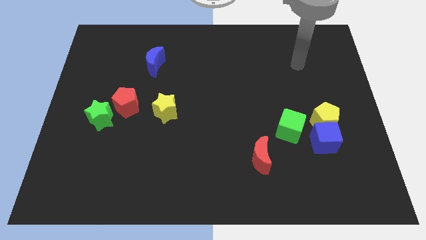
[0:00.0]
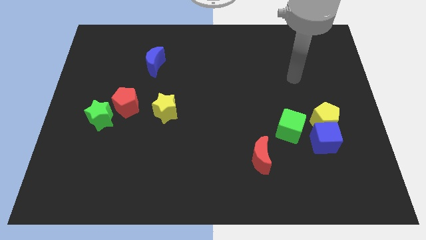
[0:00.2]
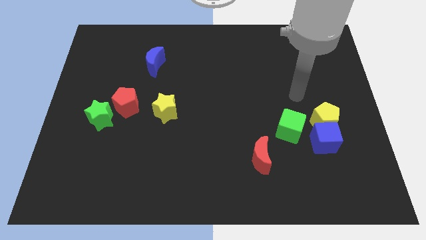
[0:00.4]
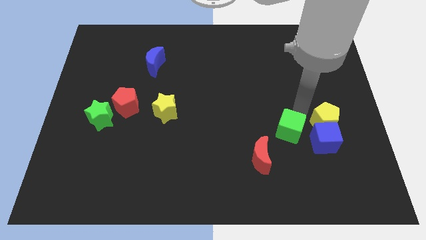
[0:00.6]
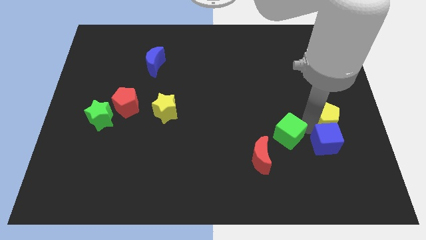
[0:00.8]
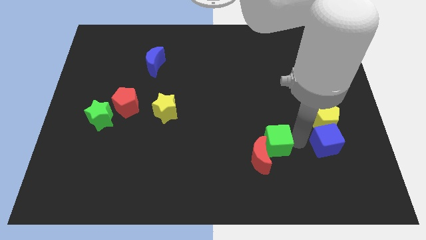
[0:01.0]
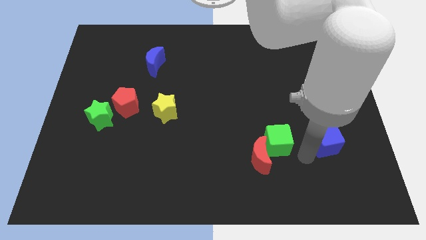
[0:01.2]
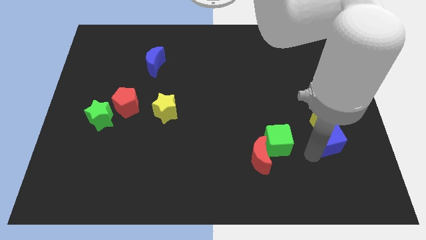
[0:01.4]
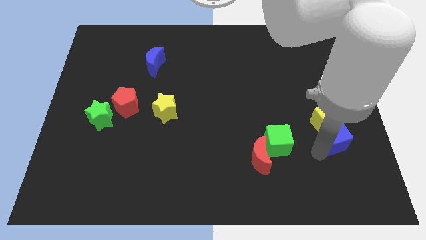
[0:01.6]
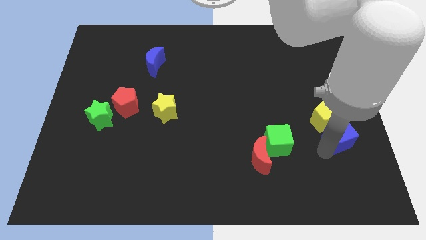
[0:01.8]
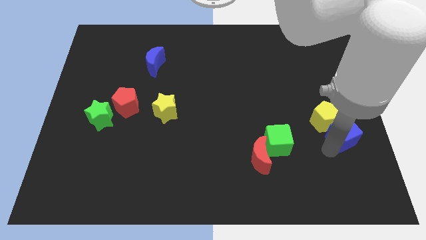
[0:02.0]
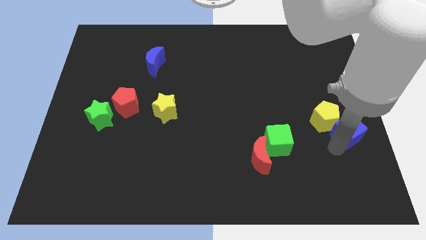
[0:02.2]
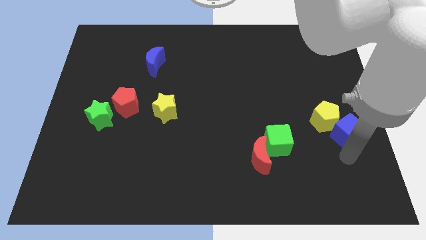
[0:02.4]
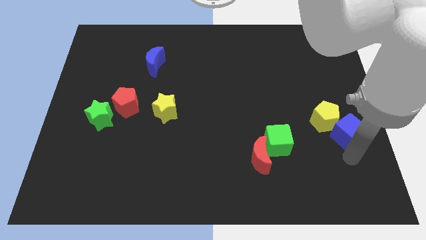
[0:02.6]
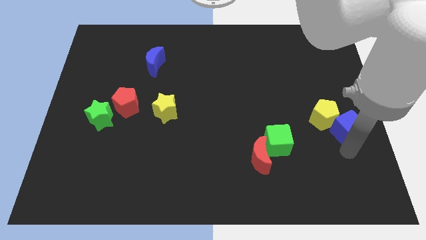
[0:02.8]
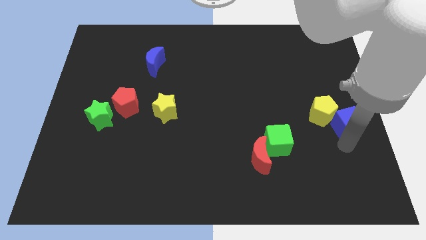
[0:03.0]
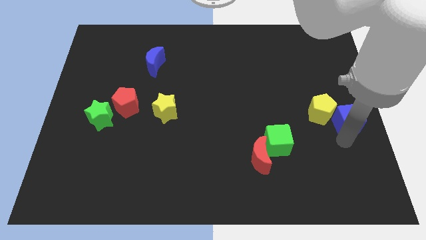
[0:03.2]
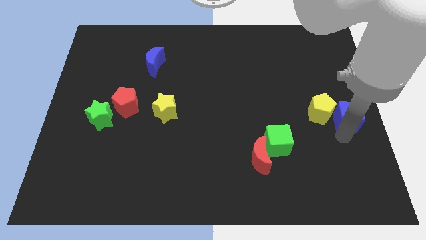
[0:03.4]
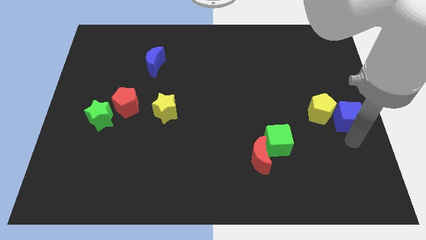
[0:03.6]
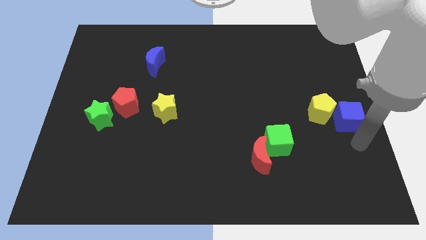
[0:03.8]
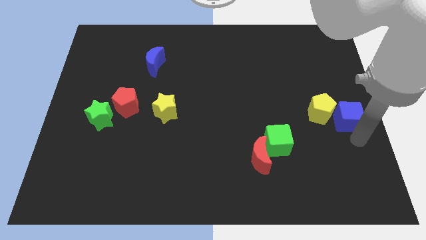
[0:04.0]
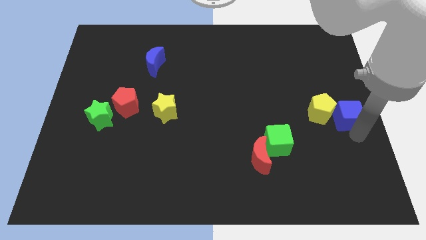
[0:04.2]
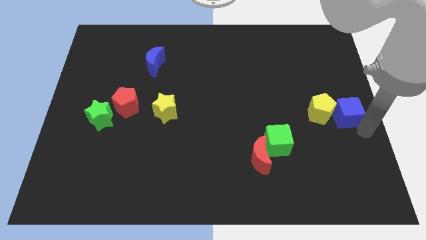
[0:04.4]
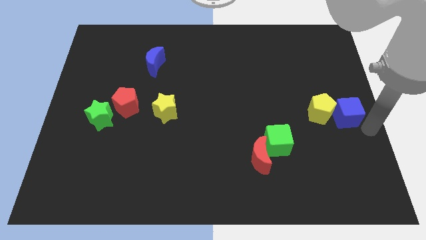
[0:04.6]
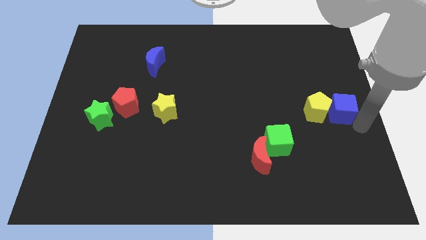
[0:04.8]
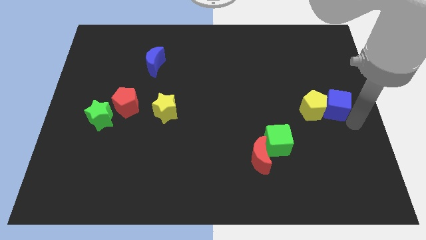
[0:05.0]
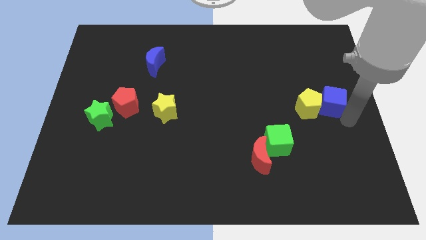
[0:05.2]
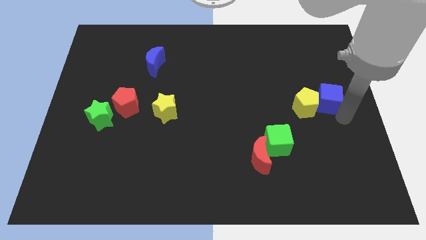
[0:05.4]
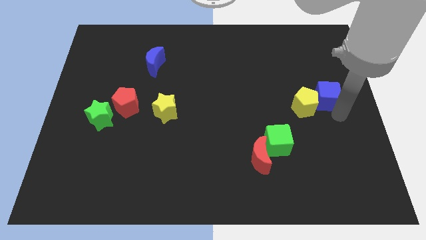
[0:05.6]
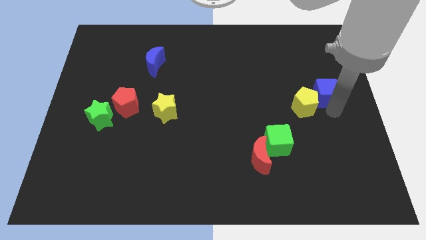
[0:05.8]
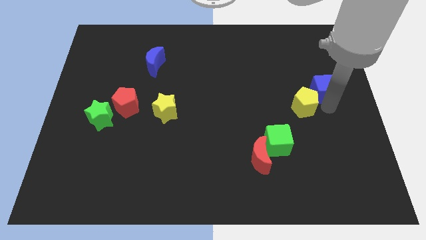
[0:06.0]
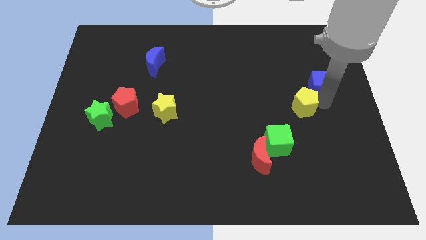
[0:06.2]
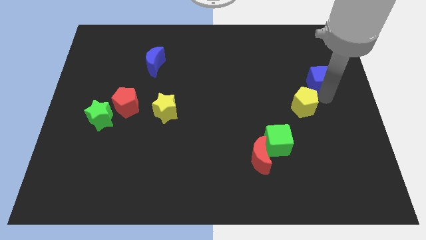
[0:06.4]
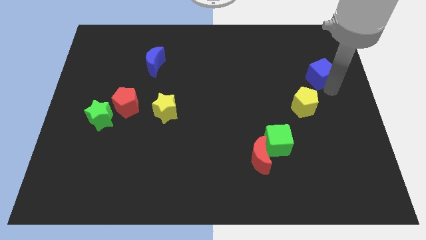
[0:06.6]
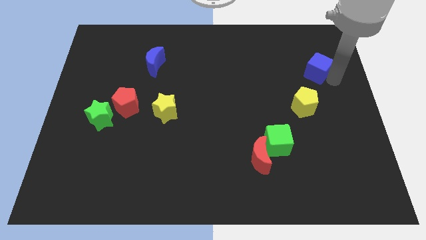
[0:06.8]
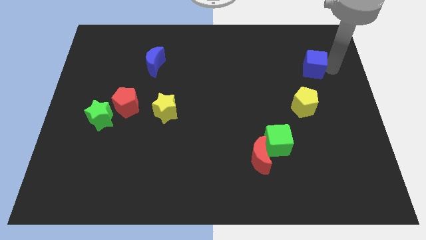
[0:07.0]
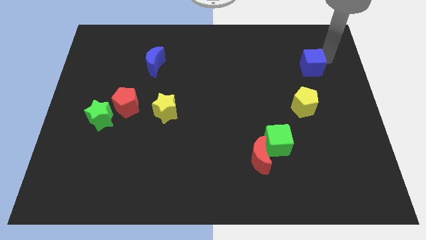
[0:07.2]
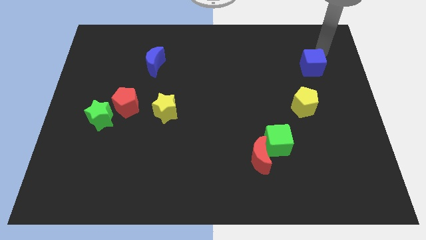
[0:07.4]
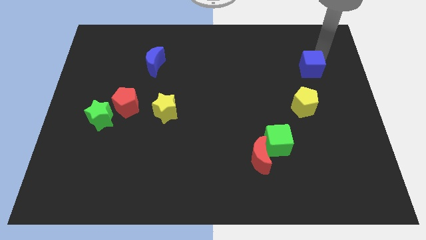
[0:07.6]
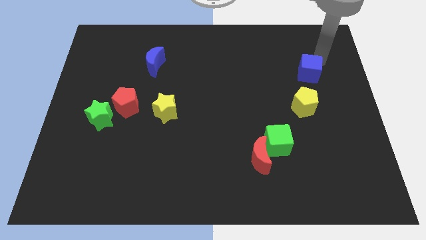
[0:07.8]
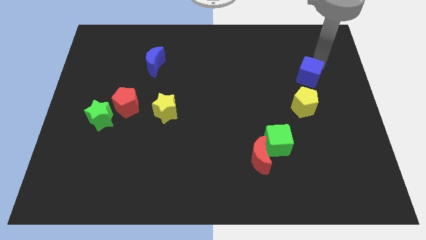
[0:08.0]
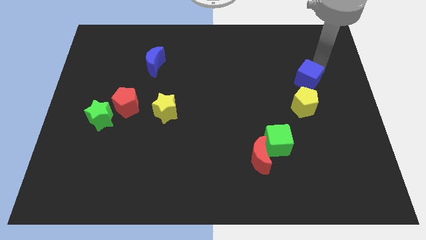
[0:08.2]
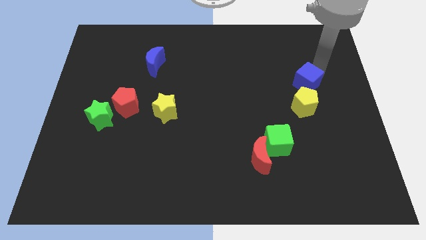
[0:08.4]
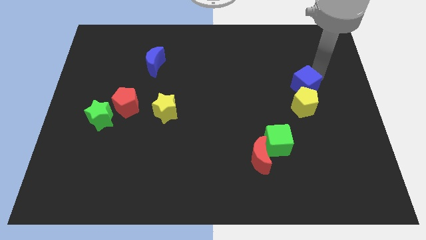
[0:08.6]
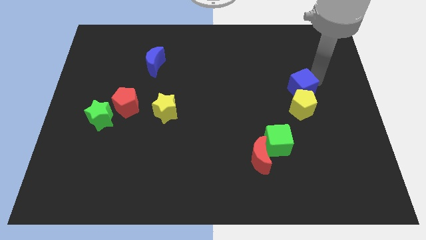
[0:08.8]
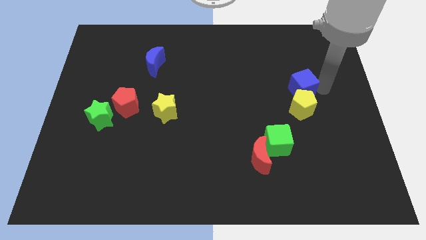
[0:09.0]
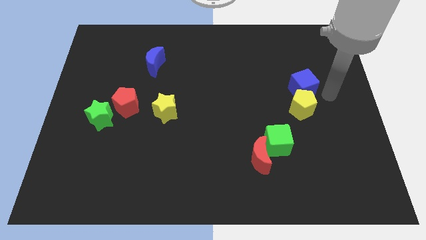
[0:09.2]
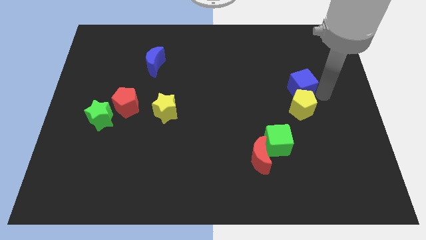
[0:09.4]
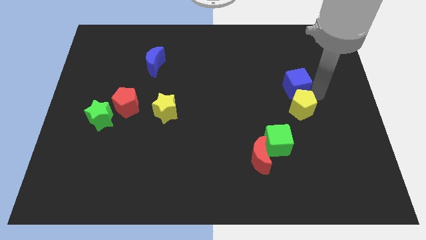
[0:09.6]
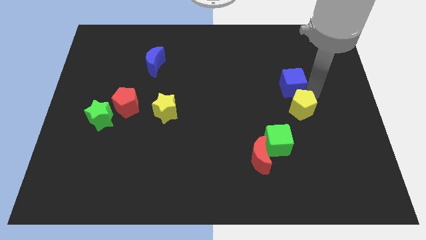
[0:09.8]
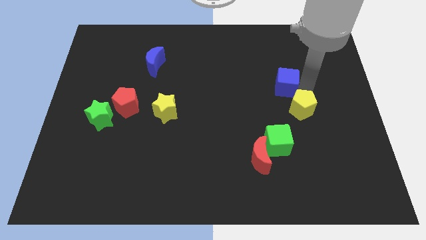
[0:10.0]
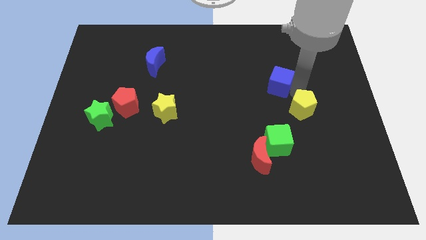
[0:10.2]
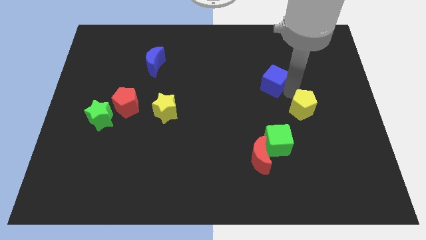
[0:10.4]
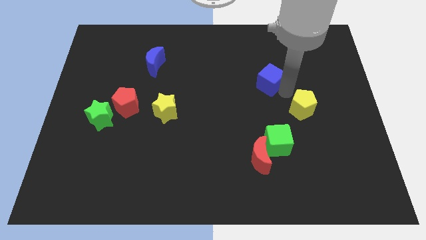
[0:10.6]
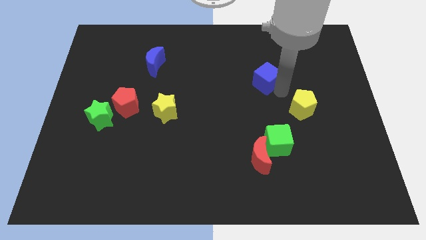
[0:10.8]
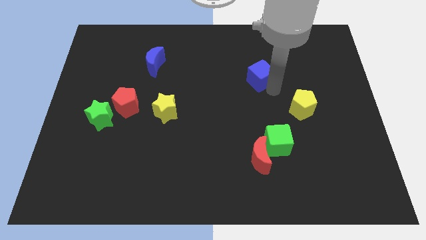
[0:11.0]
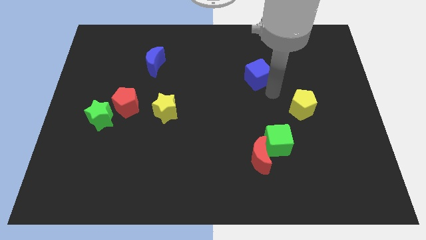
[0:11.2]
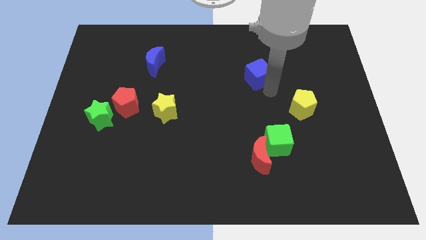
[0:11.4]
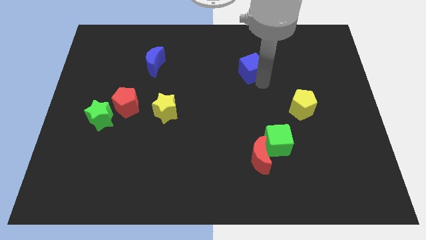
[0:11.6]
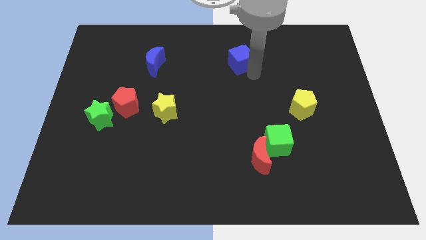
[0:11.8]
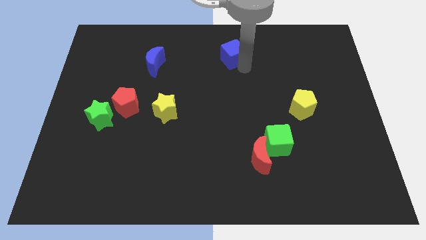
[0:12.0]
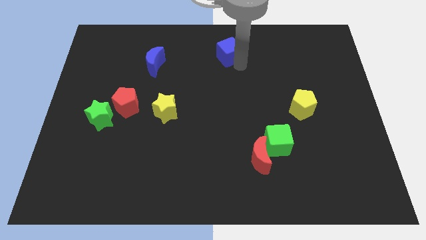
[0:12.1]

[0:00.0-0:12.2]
put the blue cube to the top side
